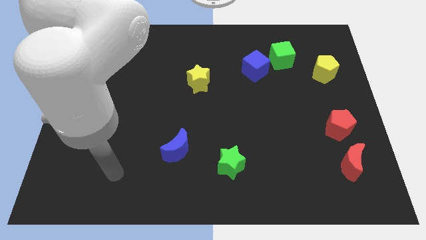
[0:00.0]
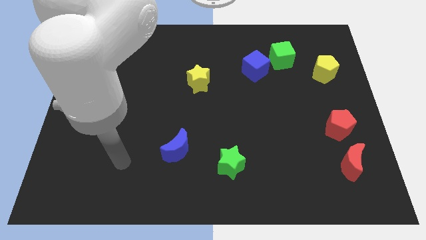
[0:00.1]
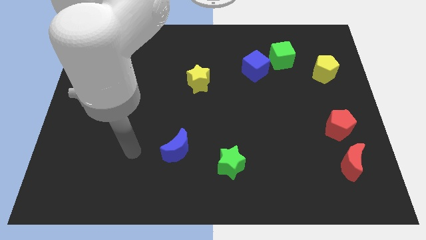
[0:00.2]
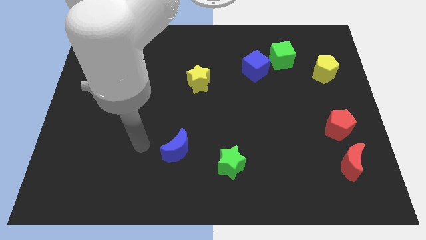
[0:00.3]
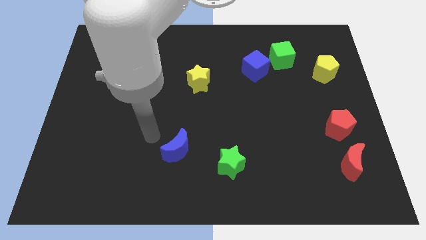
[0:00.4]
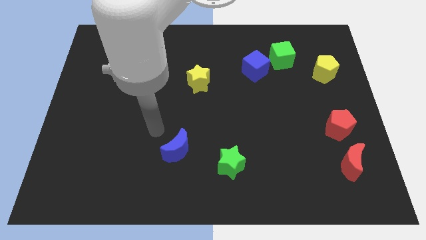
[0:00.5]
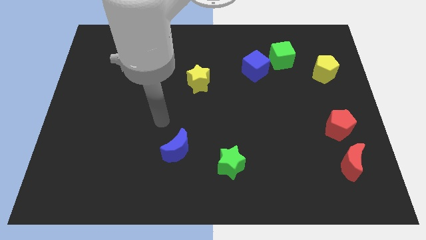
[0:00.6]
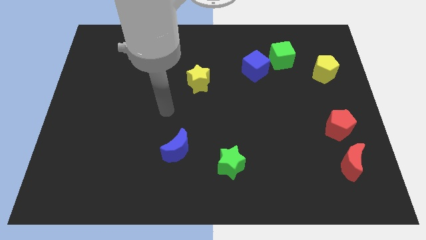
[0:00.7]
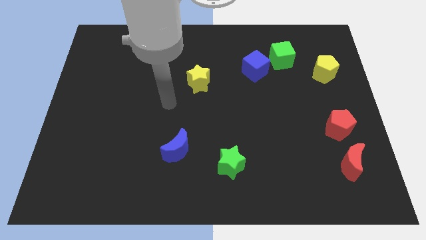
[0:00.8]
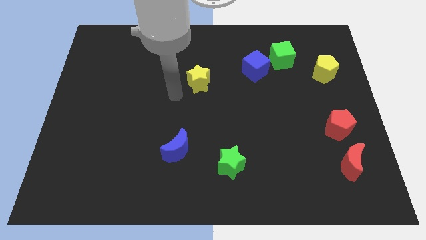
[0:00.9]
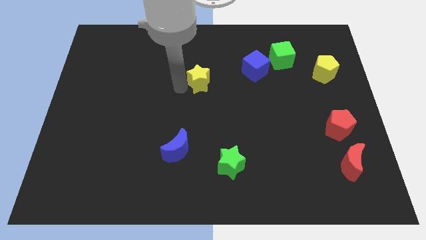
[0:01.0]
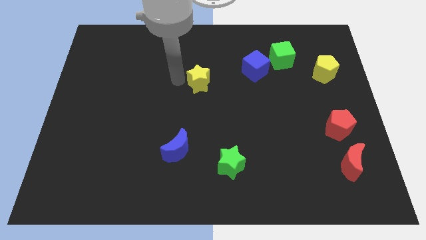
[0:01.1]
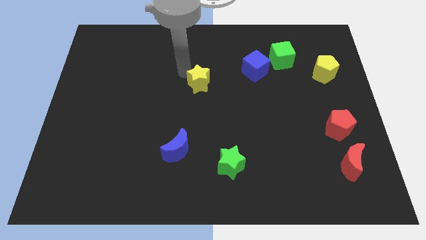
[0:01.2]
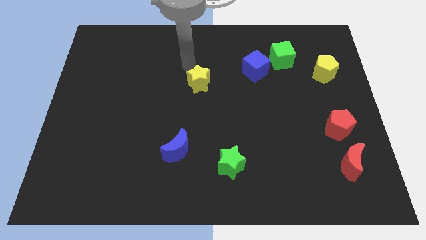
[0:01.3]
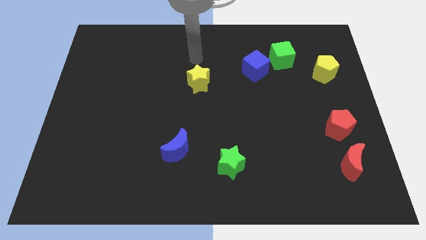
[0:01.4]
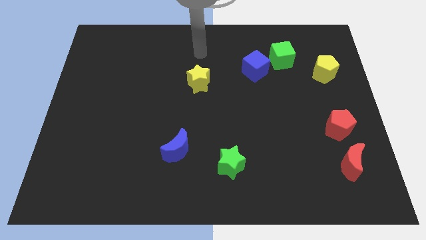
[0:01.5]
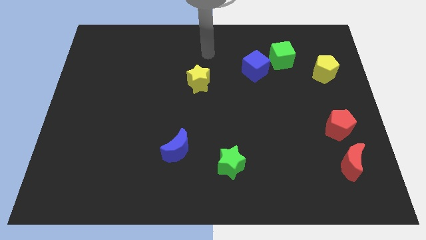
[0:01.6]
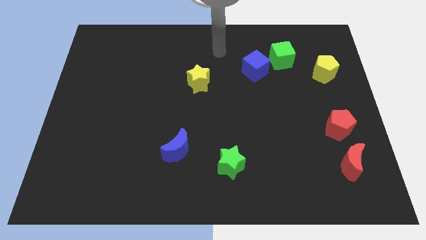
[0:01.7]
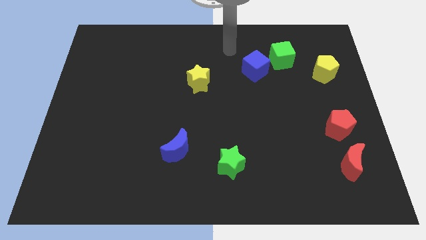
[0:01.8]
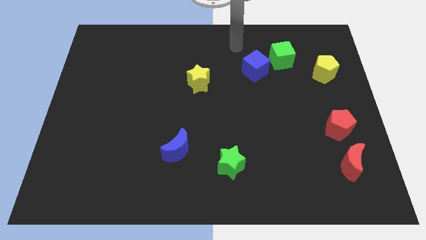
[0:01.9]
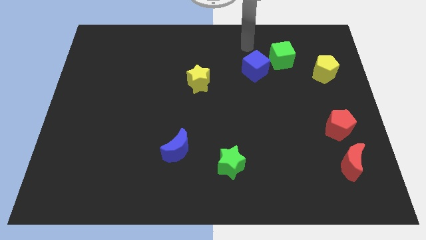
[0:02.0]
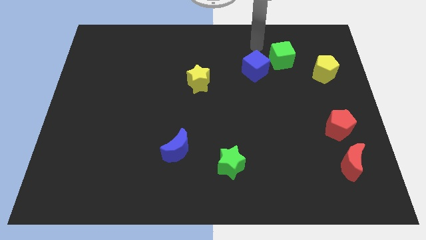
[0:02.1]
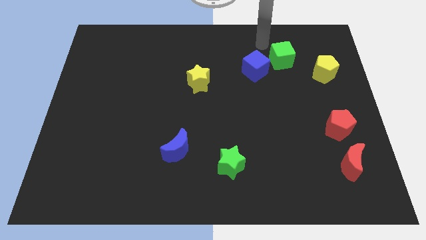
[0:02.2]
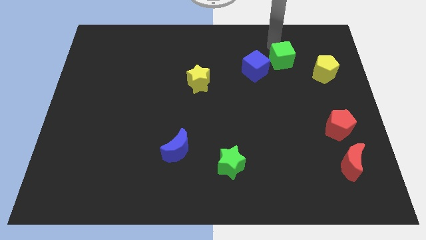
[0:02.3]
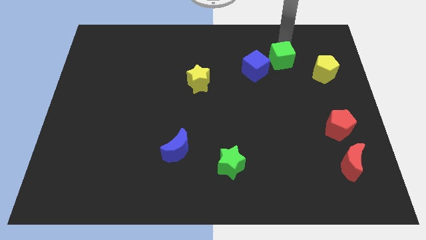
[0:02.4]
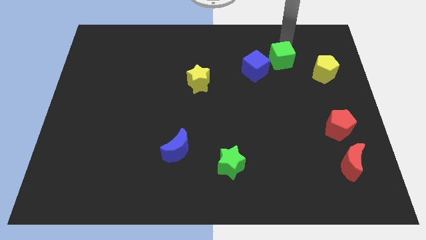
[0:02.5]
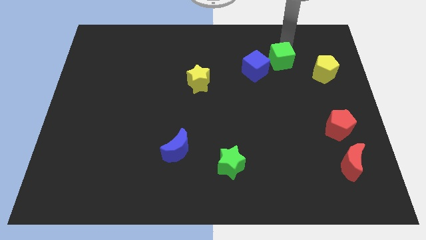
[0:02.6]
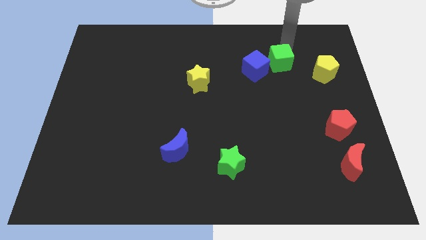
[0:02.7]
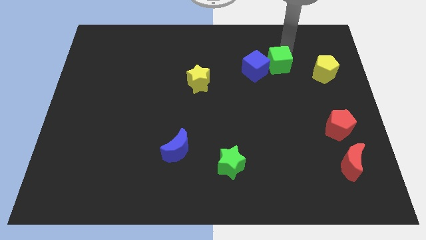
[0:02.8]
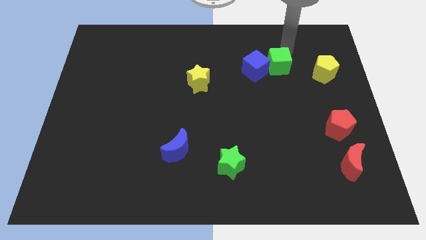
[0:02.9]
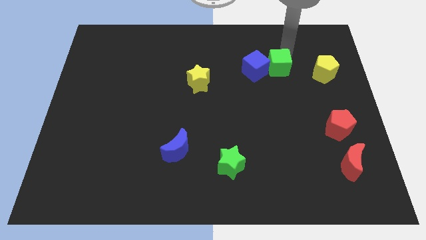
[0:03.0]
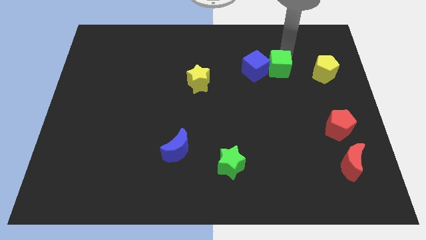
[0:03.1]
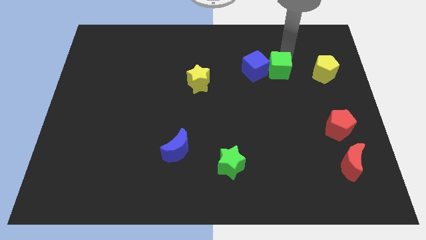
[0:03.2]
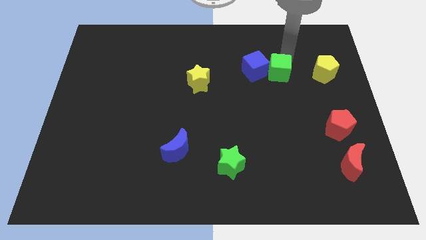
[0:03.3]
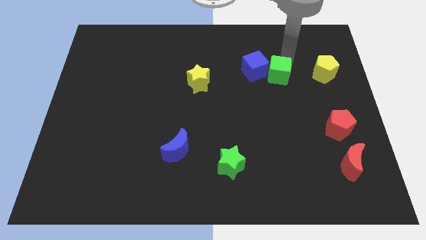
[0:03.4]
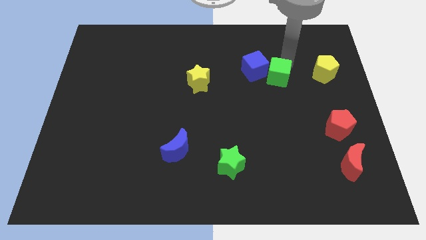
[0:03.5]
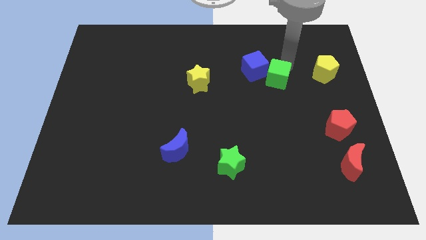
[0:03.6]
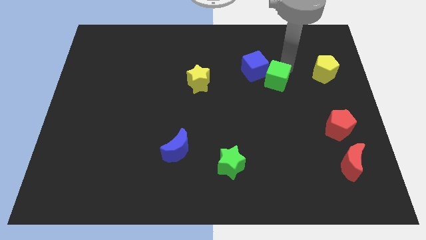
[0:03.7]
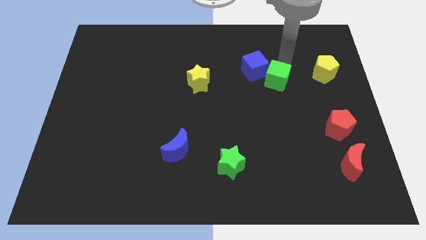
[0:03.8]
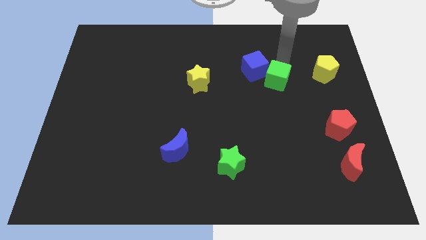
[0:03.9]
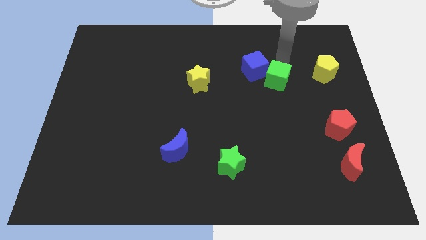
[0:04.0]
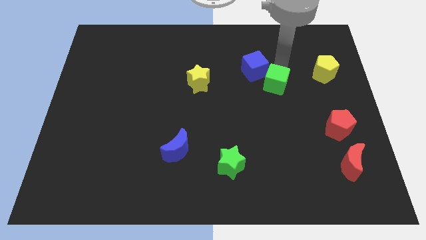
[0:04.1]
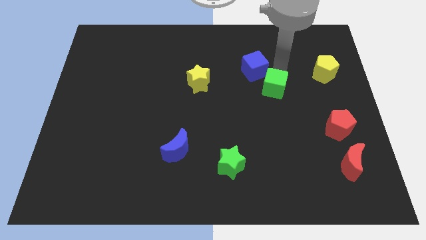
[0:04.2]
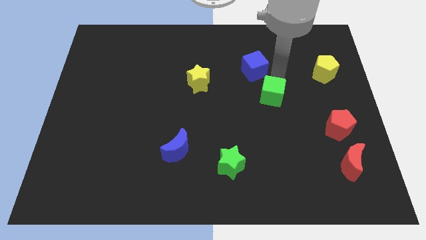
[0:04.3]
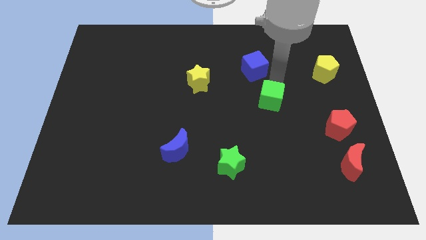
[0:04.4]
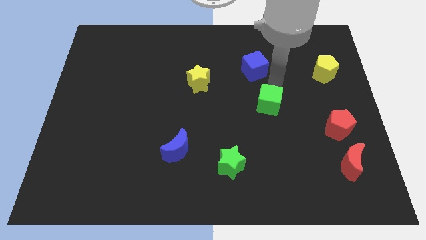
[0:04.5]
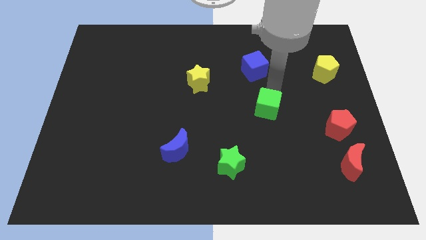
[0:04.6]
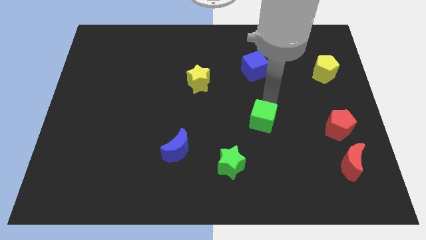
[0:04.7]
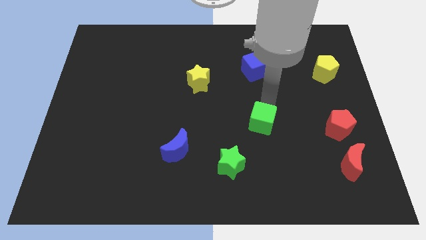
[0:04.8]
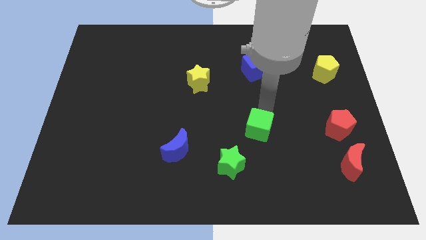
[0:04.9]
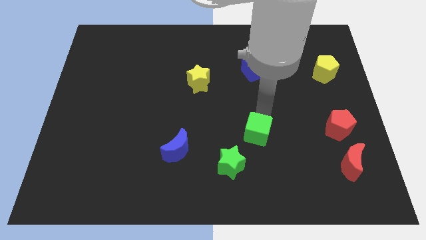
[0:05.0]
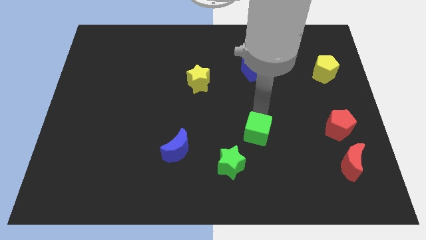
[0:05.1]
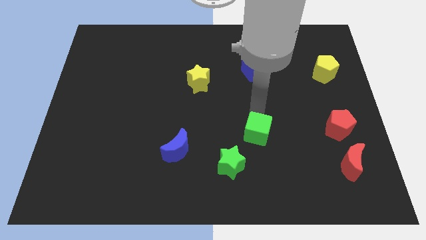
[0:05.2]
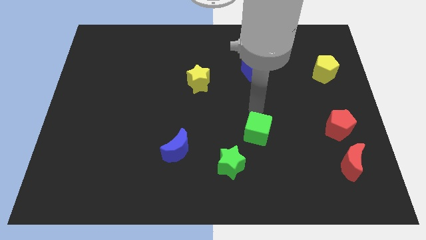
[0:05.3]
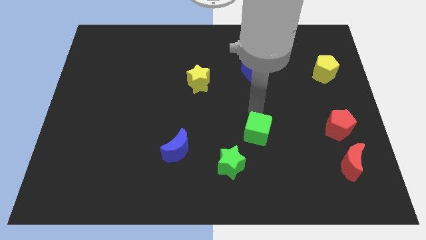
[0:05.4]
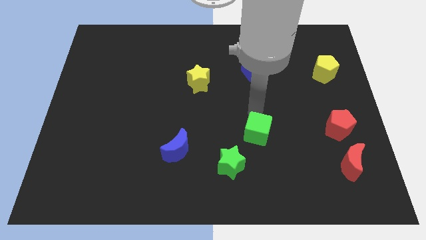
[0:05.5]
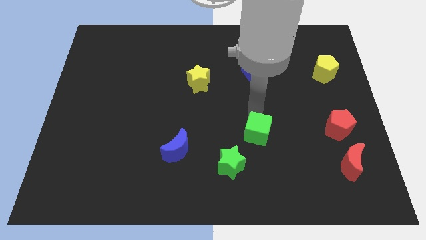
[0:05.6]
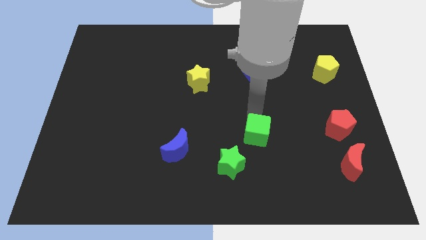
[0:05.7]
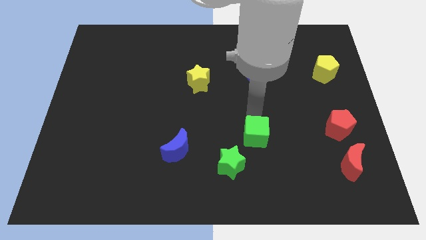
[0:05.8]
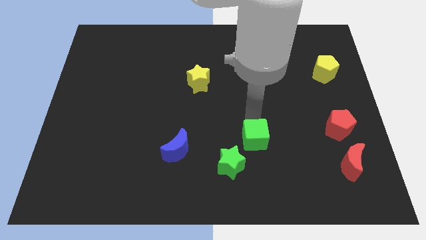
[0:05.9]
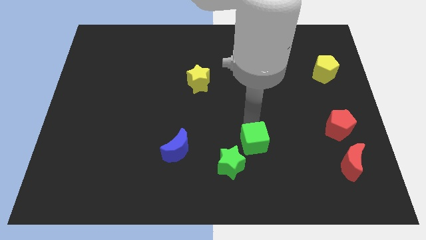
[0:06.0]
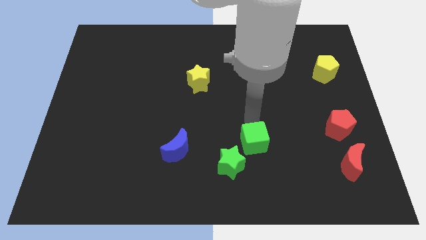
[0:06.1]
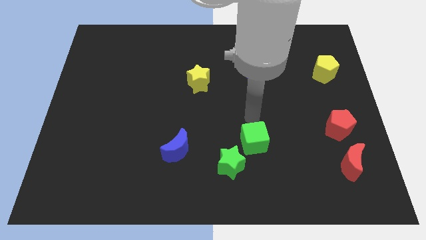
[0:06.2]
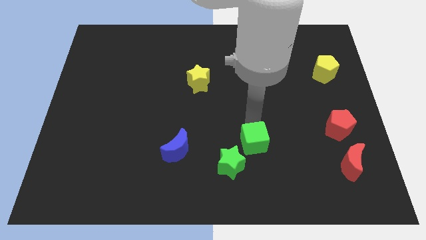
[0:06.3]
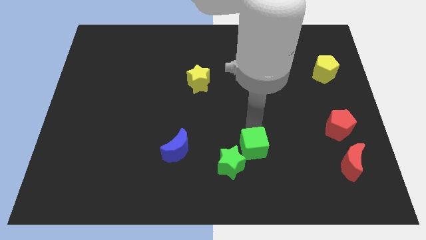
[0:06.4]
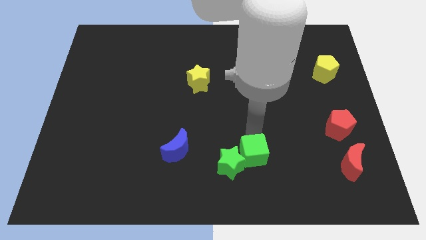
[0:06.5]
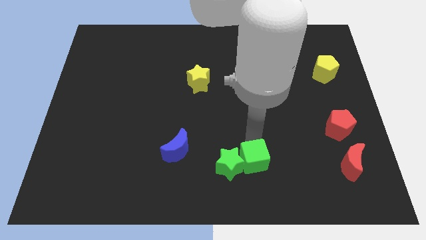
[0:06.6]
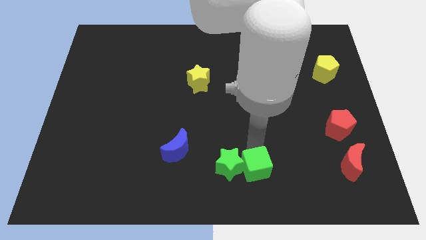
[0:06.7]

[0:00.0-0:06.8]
push the green cube to the bottom
